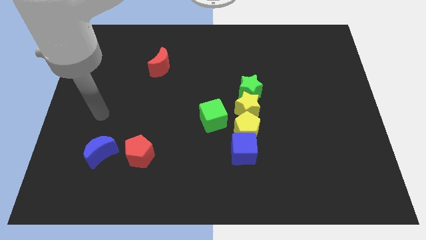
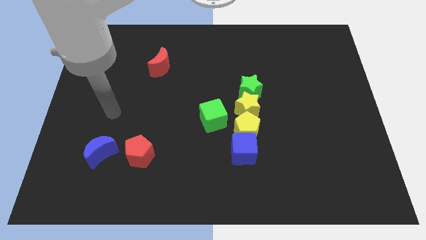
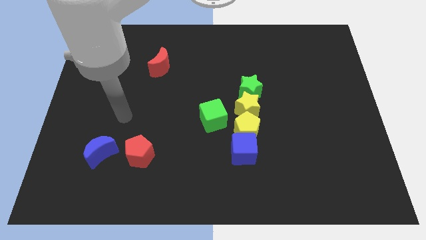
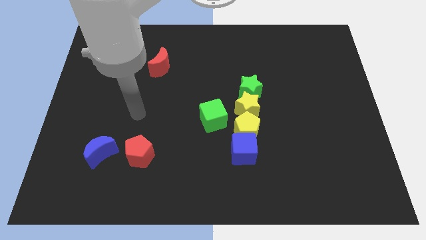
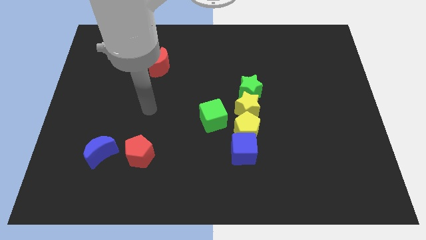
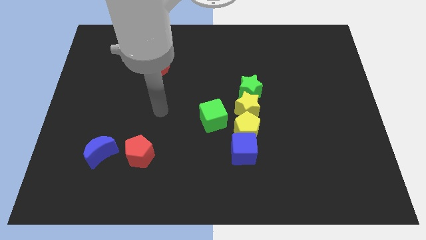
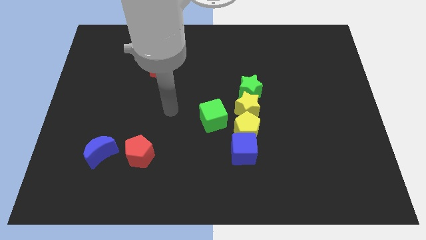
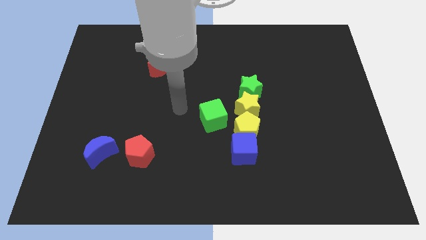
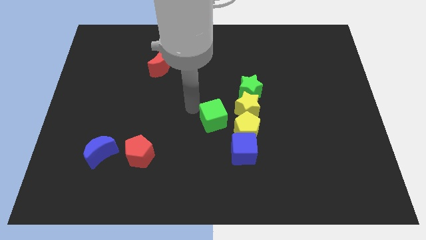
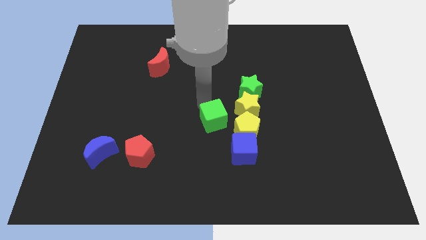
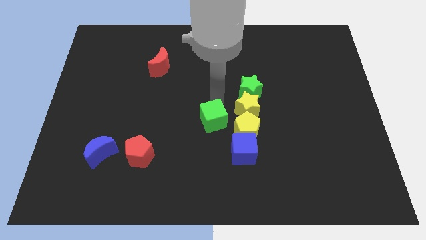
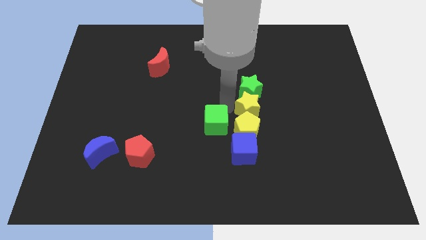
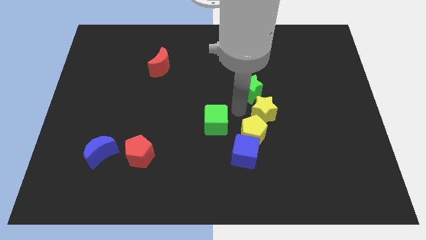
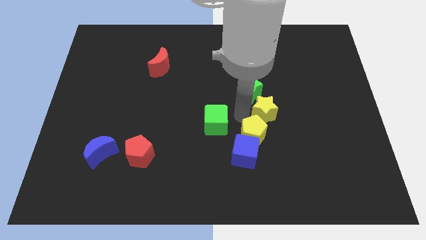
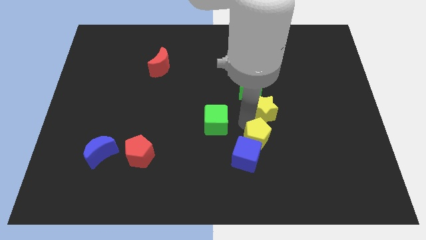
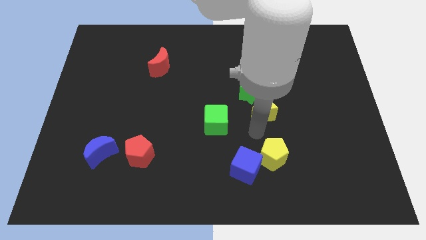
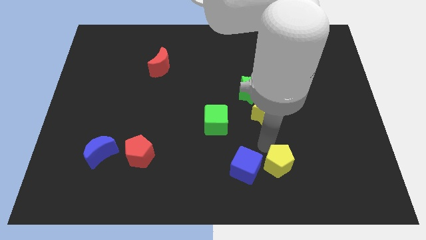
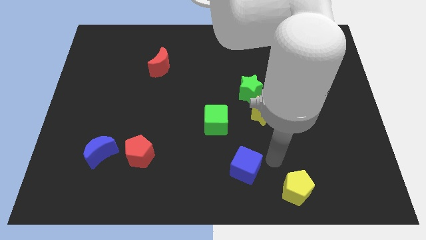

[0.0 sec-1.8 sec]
separate the blue cube from the yellow pentagon

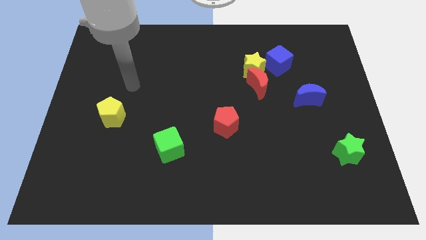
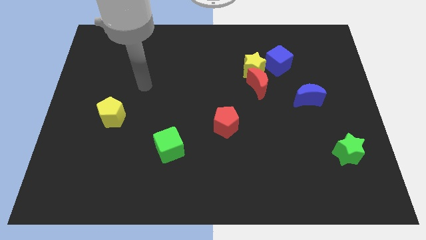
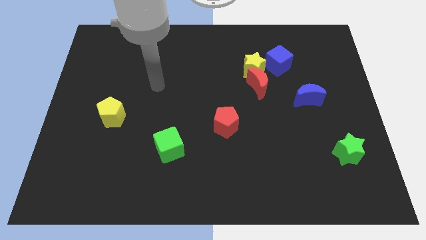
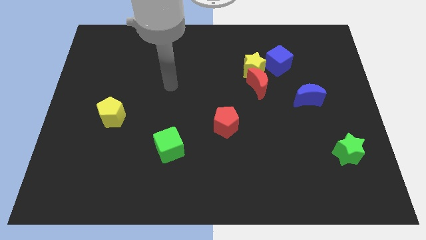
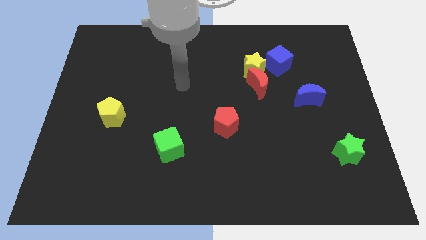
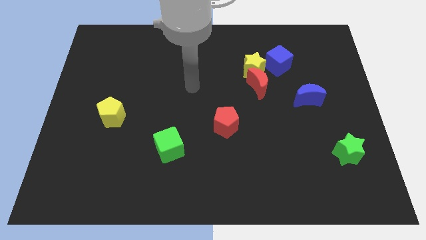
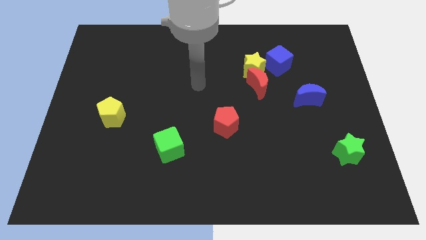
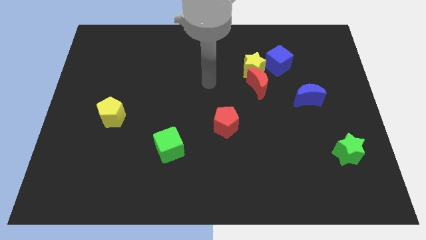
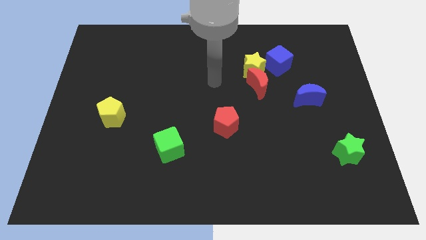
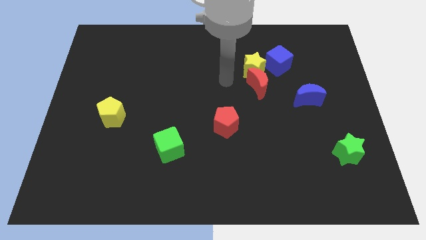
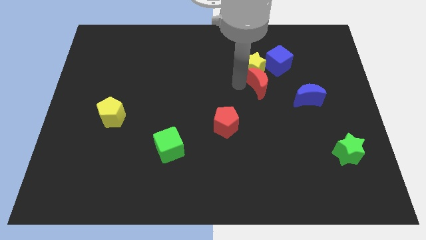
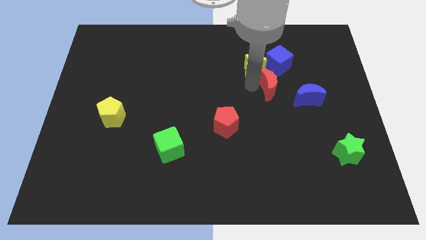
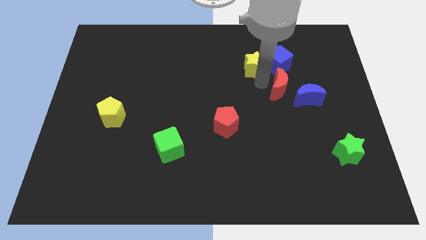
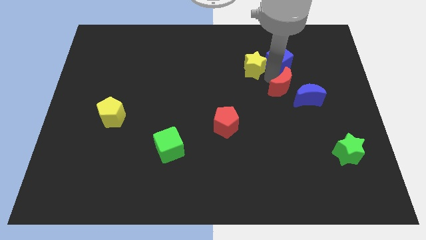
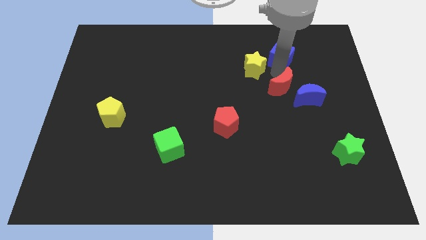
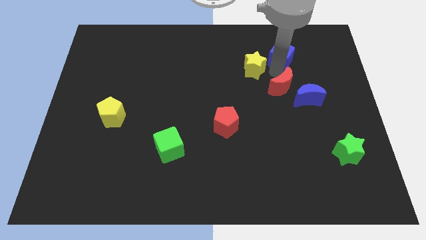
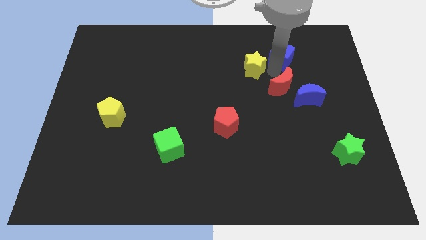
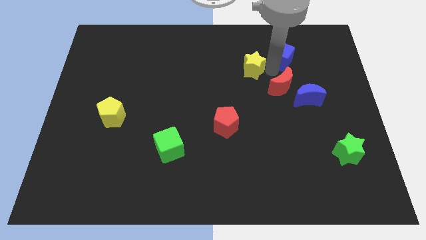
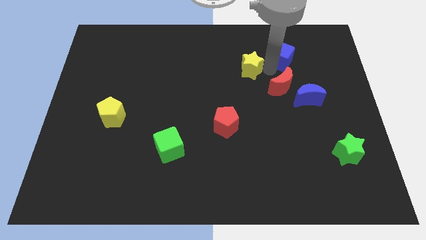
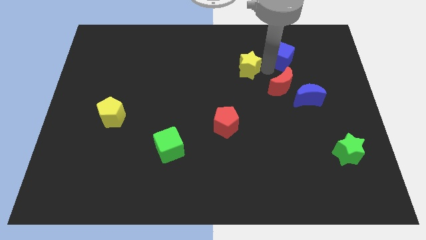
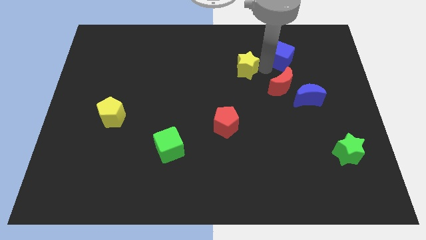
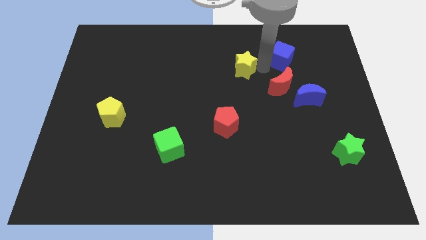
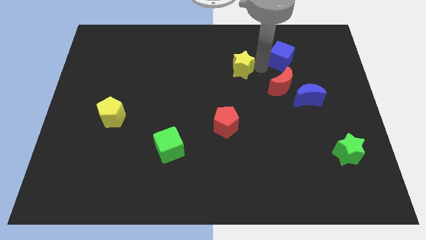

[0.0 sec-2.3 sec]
move the yellow star away from the red moon and blue cube

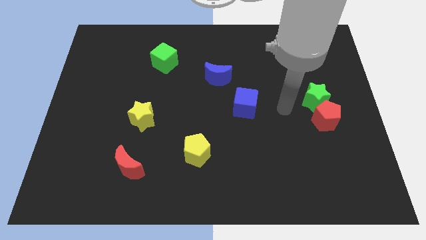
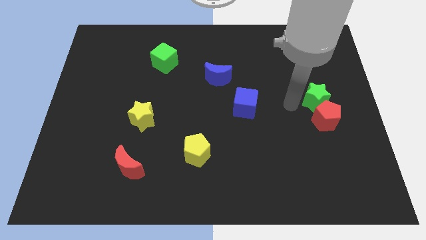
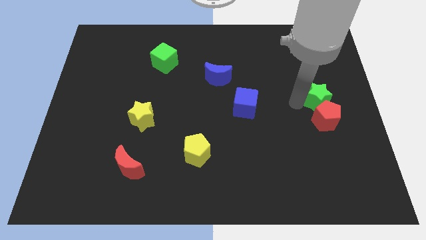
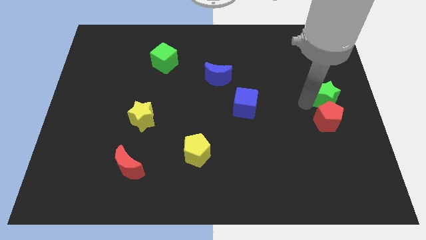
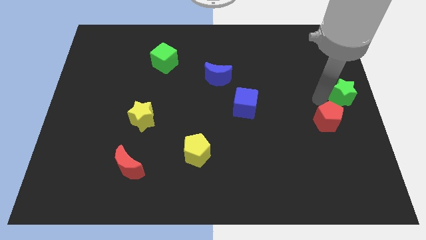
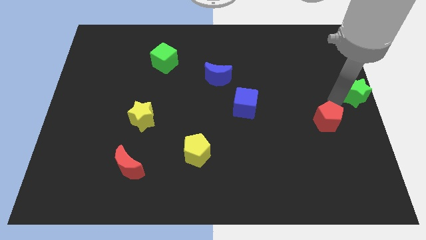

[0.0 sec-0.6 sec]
move the red pentagon away from the green star

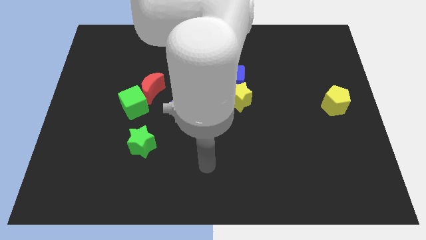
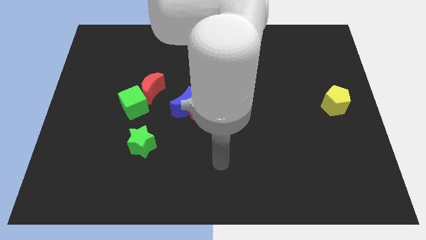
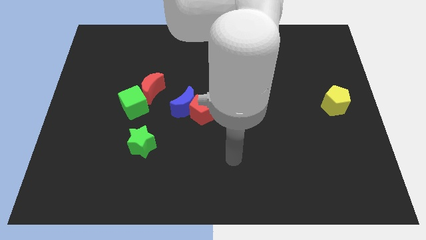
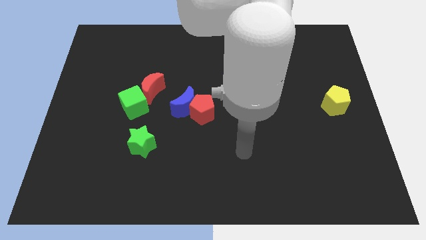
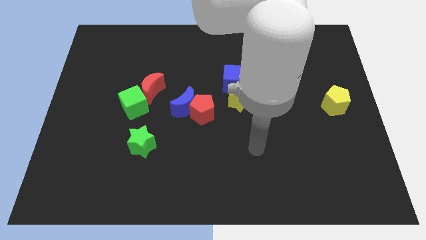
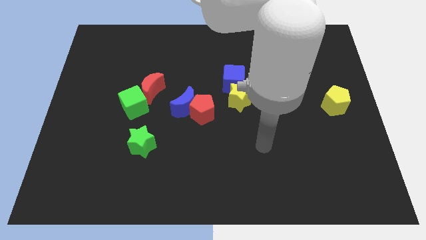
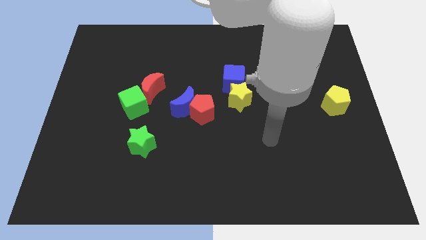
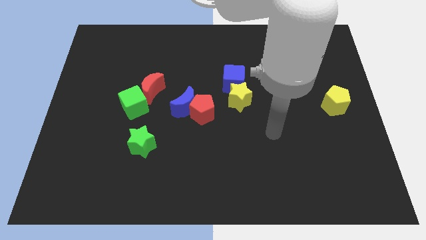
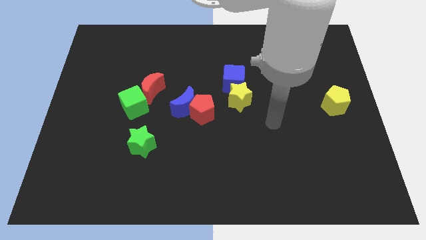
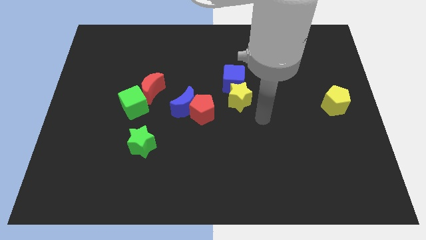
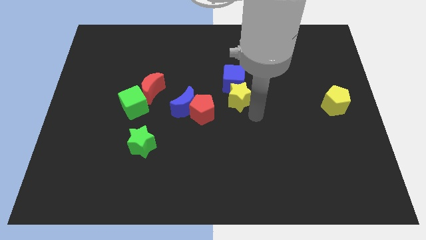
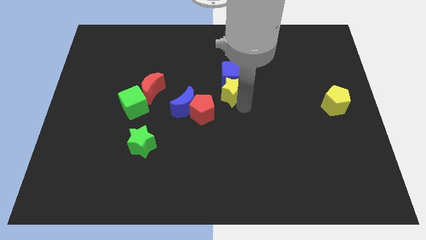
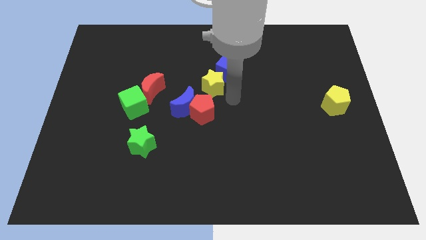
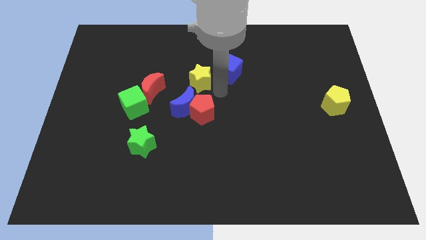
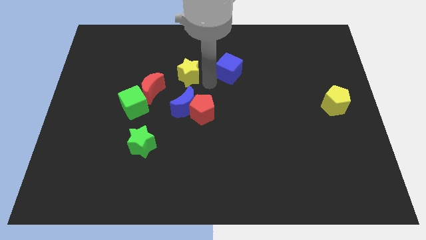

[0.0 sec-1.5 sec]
separate the blue cube from the yellow star

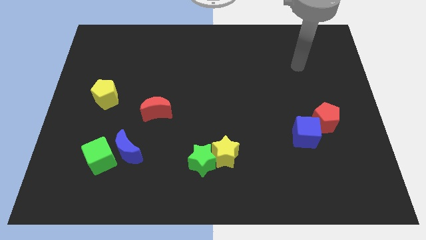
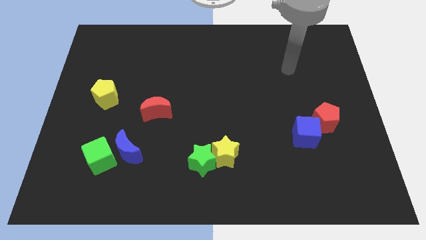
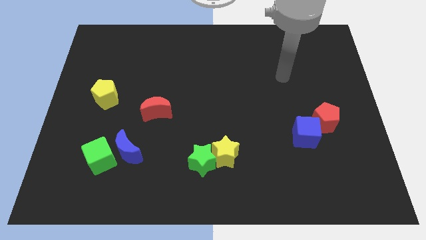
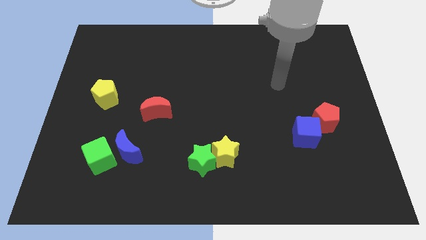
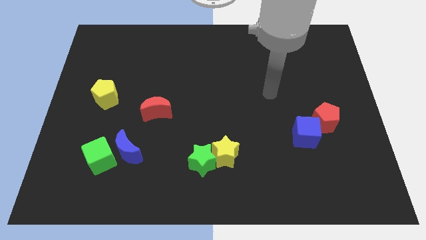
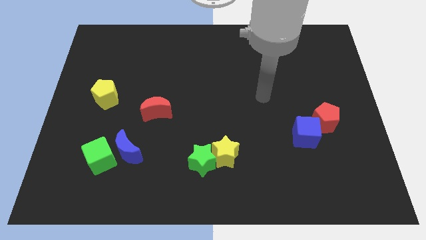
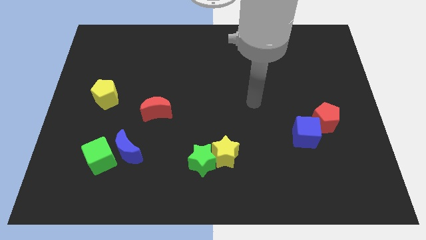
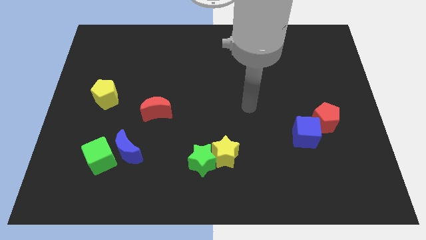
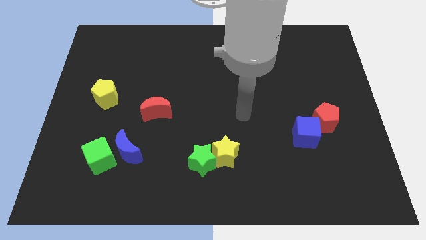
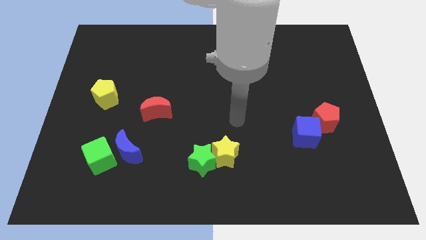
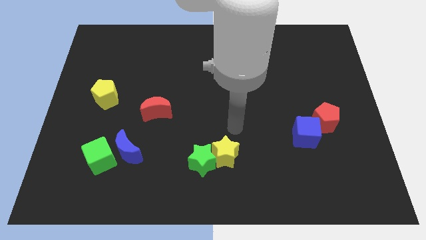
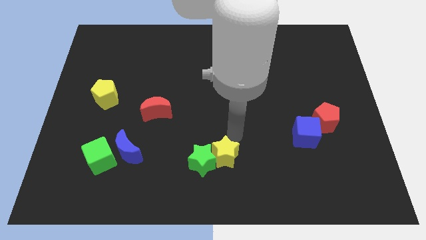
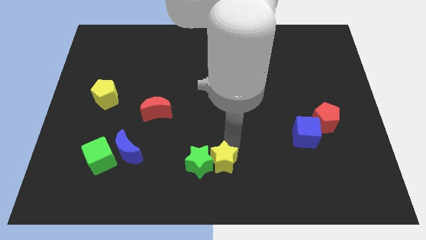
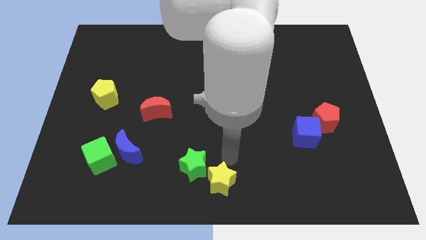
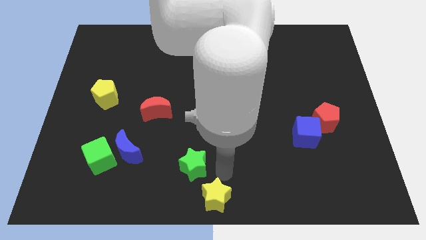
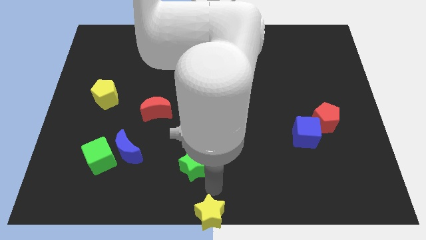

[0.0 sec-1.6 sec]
move the green star away from the yellow star

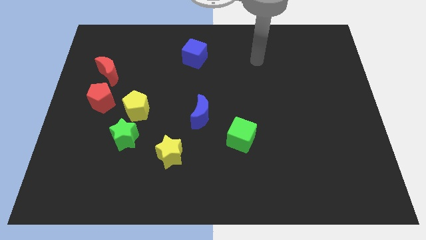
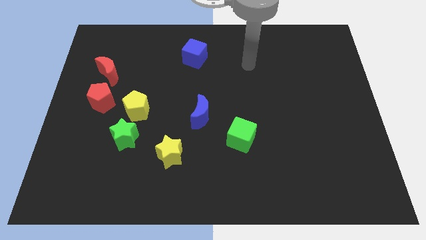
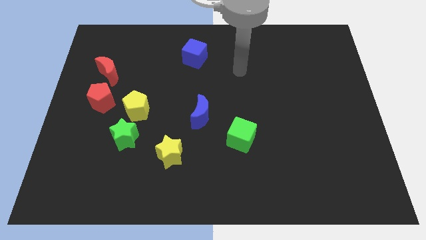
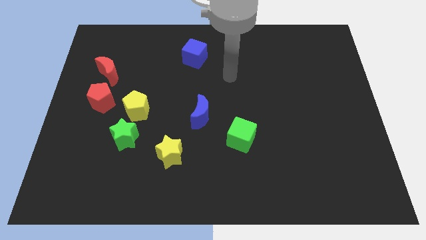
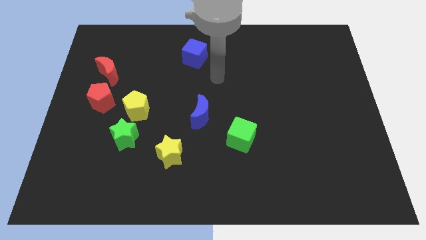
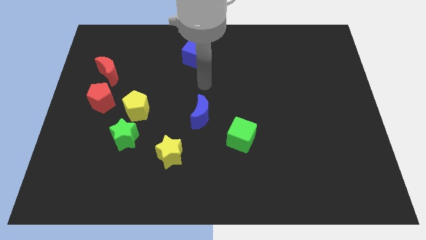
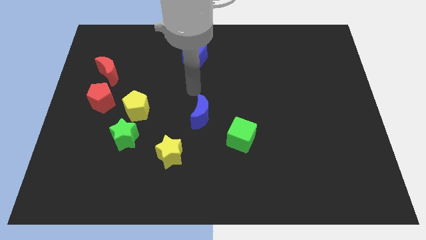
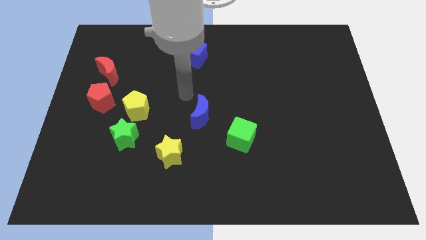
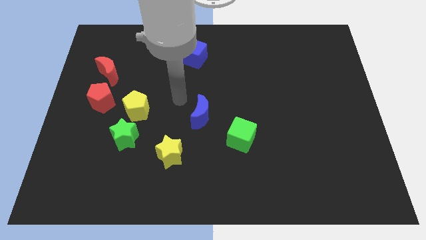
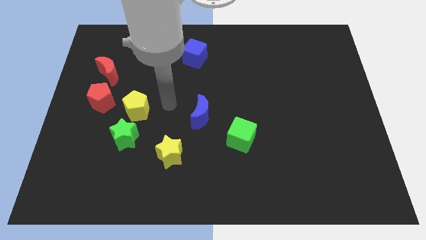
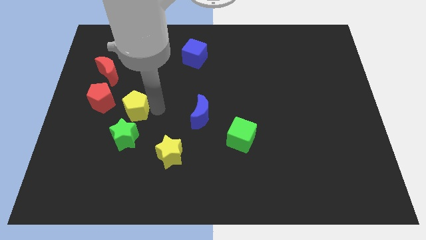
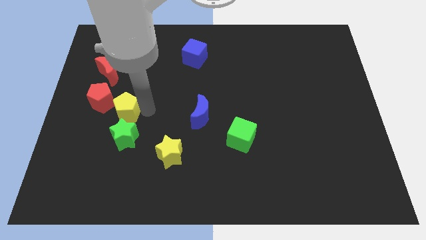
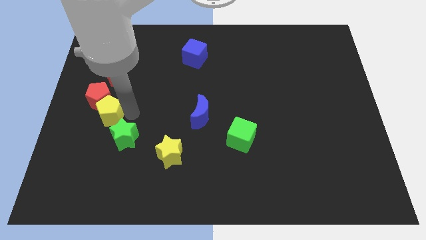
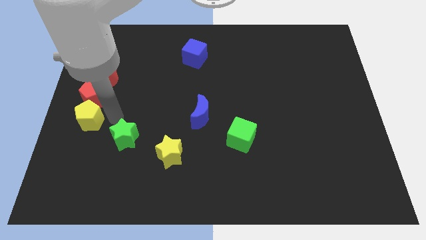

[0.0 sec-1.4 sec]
separate the green star from the yellow pentagon
